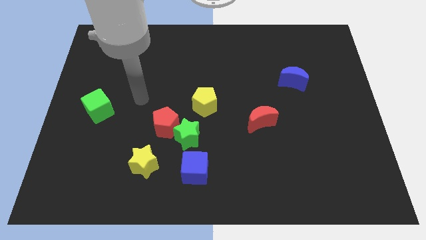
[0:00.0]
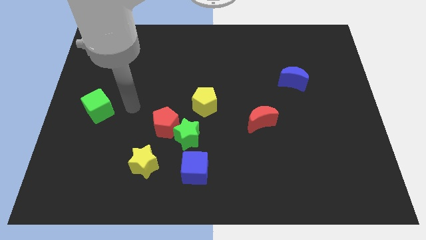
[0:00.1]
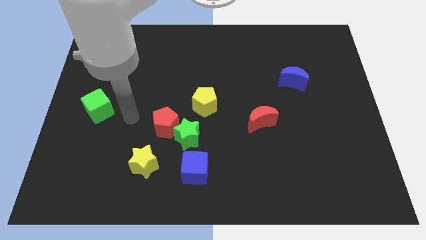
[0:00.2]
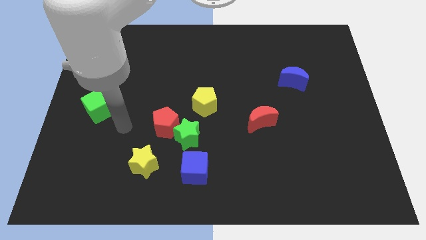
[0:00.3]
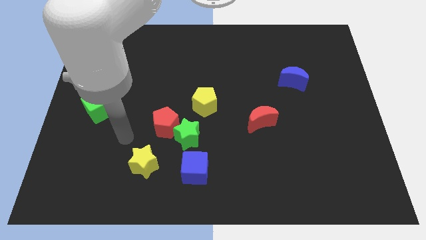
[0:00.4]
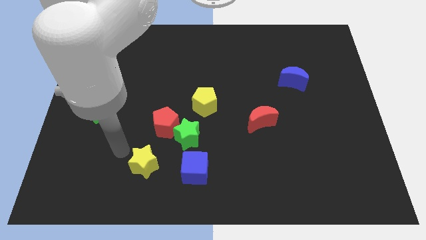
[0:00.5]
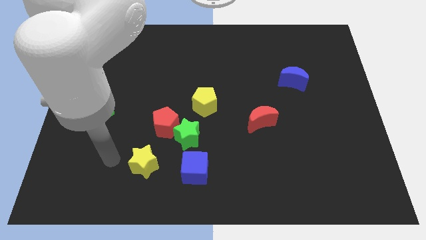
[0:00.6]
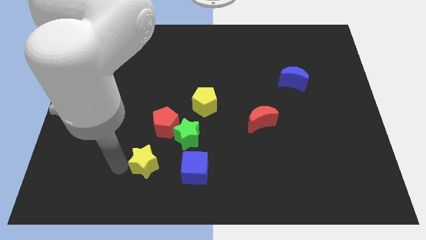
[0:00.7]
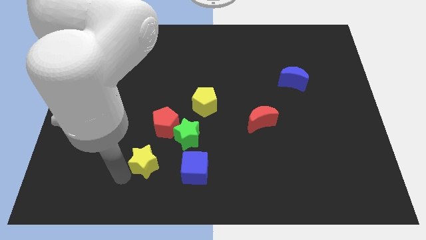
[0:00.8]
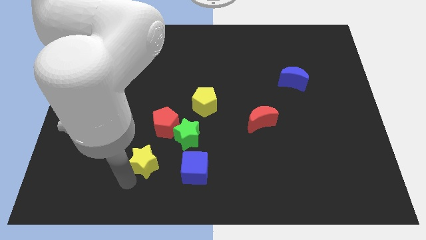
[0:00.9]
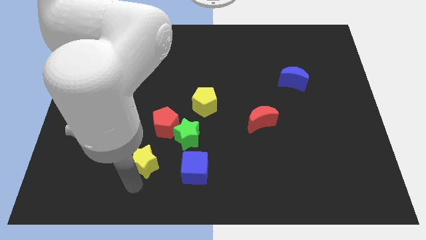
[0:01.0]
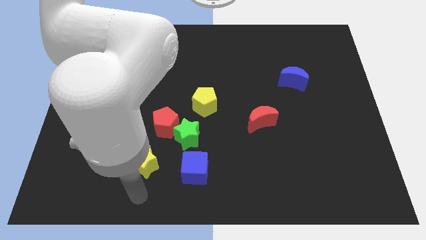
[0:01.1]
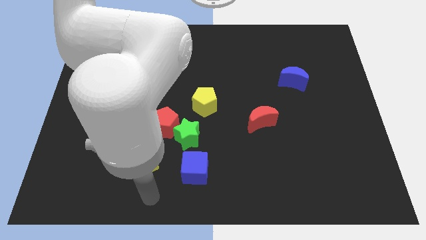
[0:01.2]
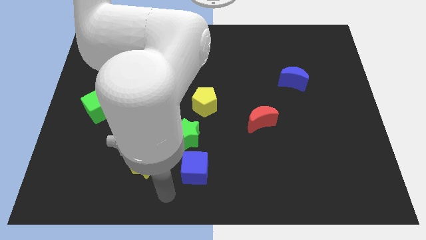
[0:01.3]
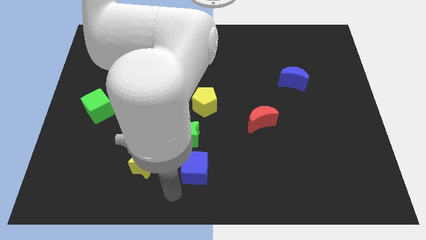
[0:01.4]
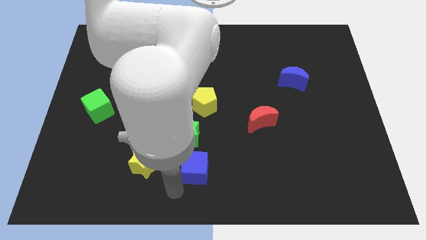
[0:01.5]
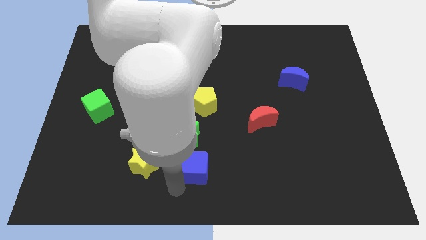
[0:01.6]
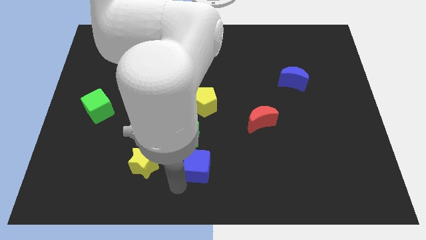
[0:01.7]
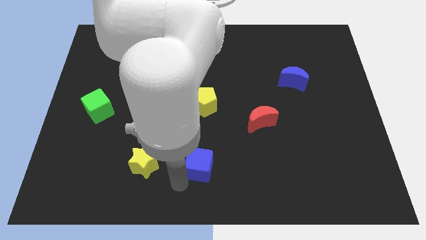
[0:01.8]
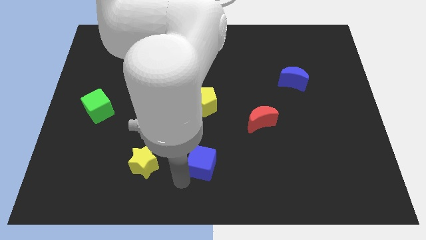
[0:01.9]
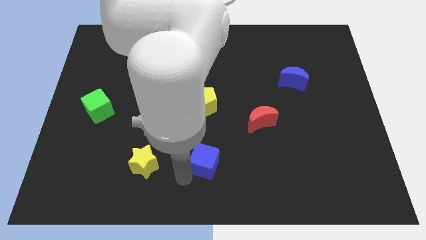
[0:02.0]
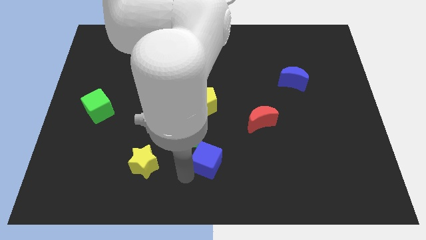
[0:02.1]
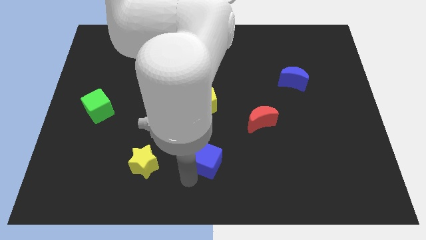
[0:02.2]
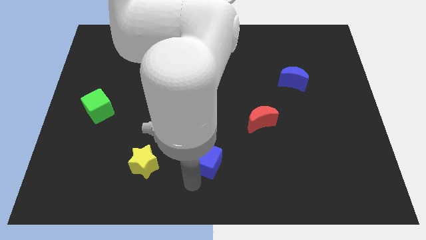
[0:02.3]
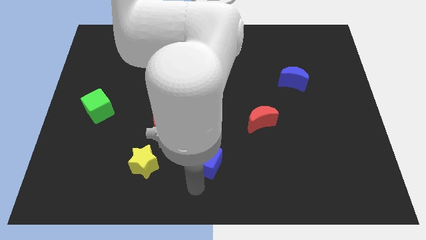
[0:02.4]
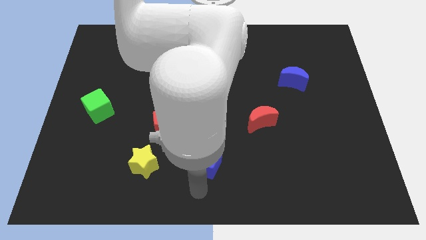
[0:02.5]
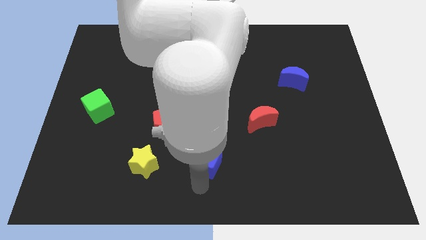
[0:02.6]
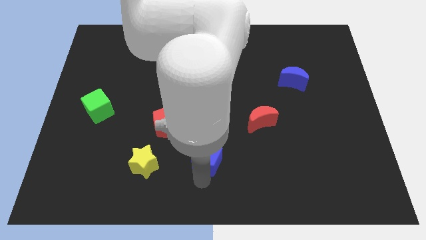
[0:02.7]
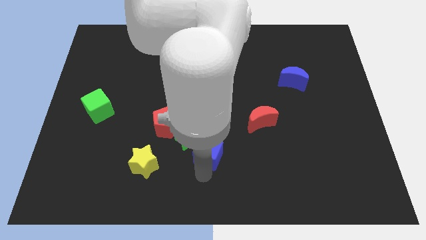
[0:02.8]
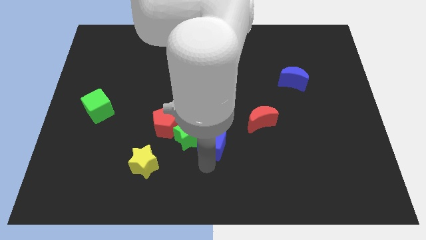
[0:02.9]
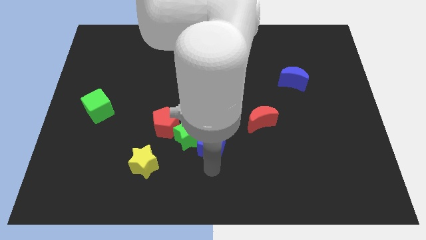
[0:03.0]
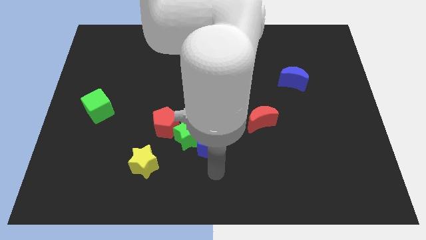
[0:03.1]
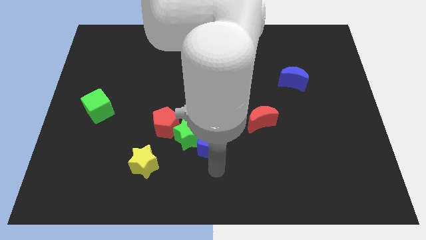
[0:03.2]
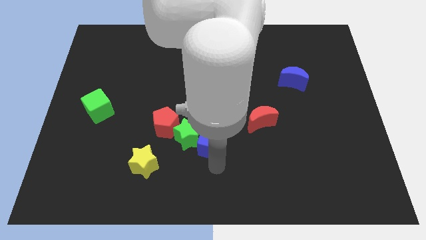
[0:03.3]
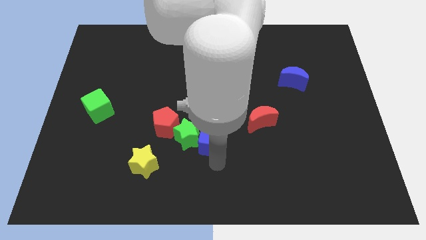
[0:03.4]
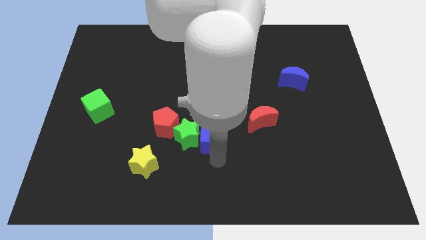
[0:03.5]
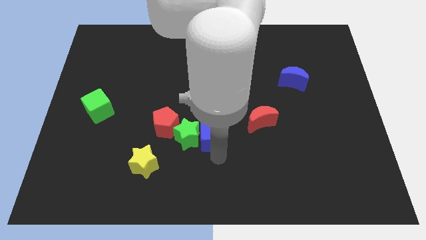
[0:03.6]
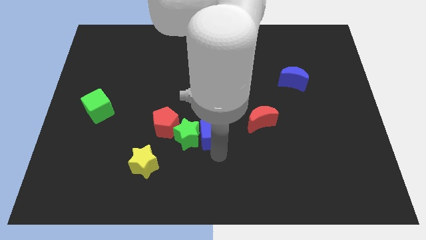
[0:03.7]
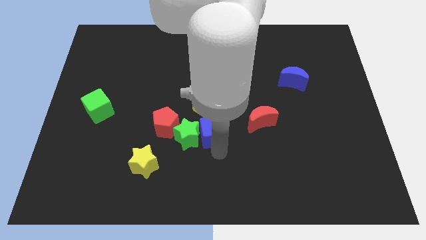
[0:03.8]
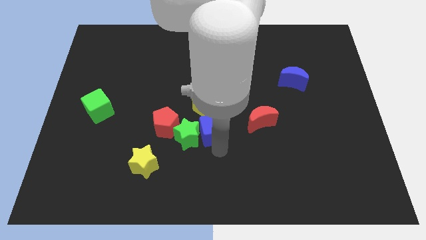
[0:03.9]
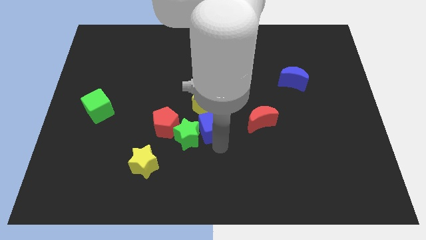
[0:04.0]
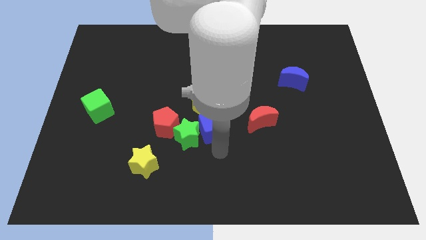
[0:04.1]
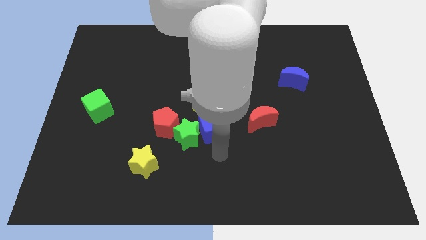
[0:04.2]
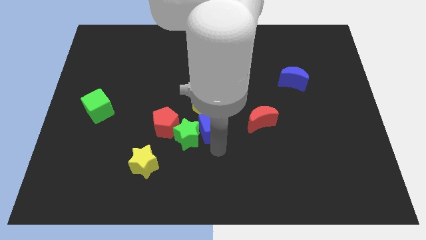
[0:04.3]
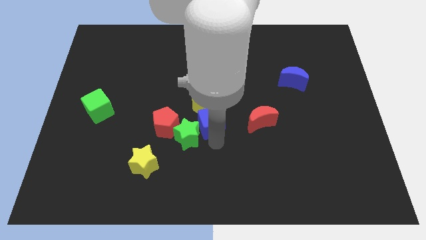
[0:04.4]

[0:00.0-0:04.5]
move the blue cube to the yellow pentagon

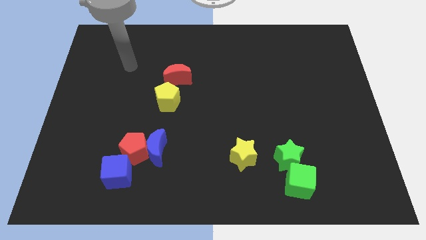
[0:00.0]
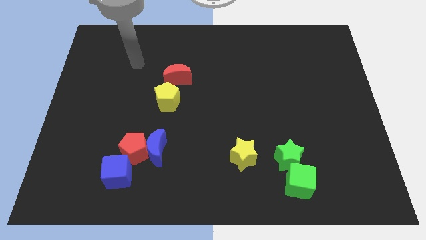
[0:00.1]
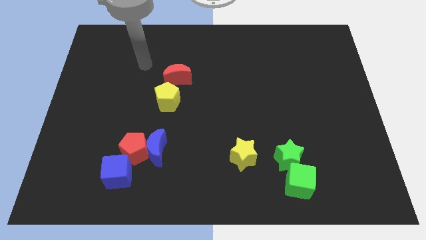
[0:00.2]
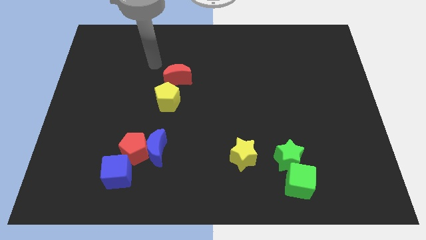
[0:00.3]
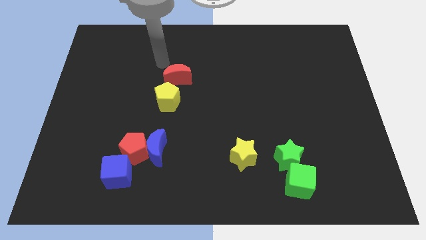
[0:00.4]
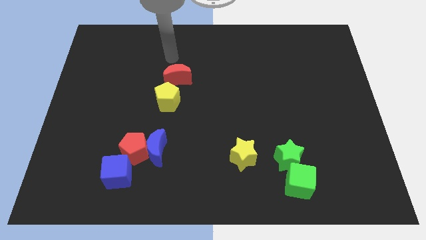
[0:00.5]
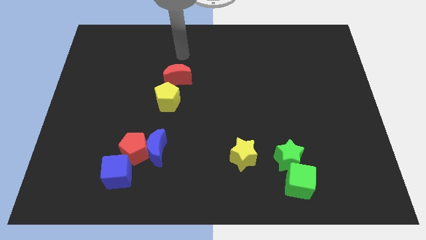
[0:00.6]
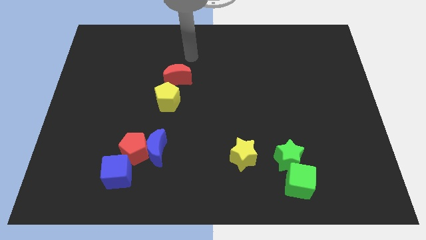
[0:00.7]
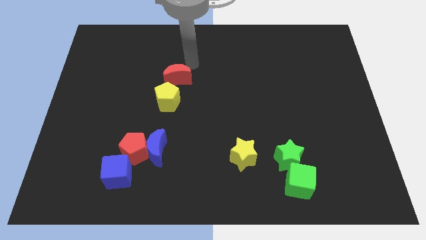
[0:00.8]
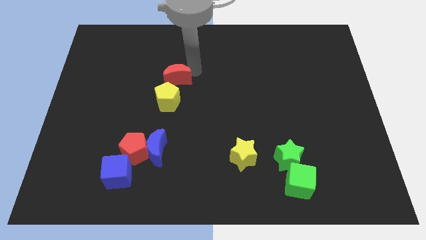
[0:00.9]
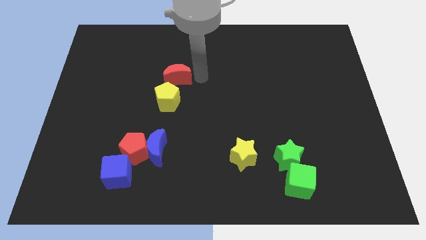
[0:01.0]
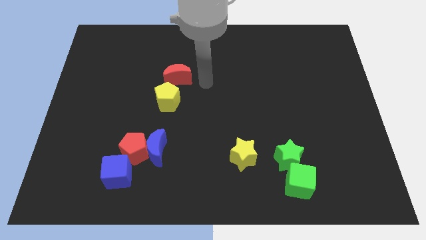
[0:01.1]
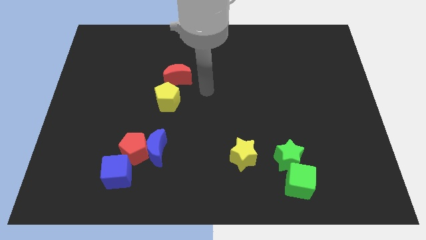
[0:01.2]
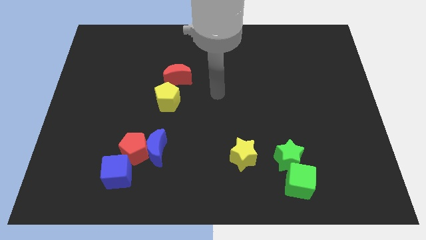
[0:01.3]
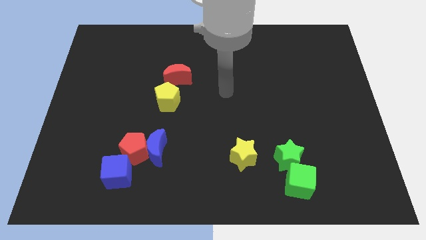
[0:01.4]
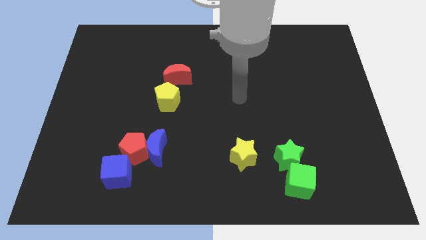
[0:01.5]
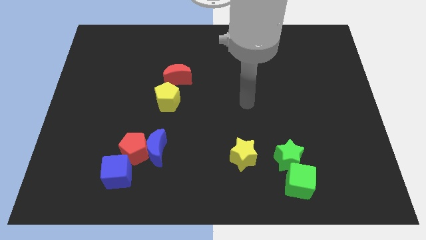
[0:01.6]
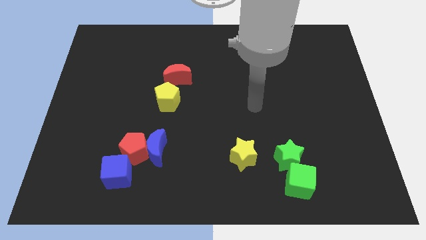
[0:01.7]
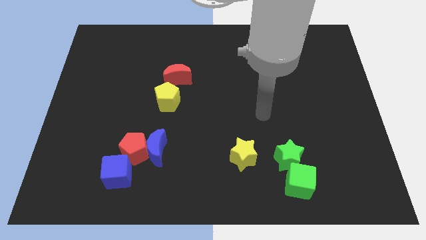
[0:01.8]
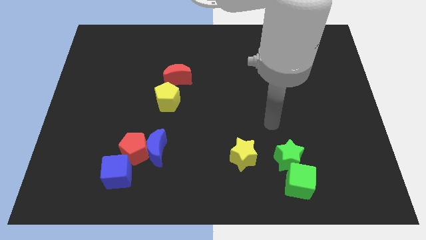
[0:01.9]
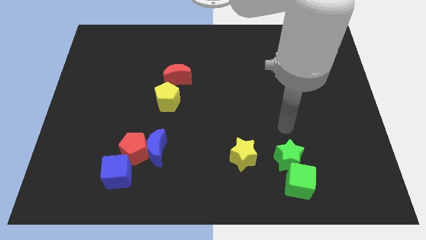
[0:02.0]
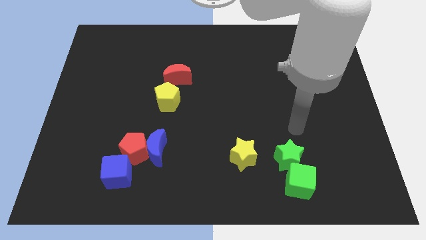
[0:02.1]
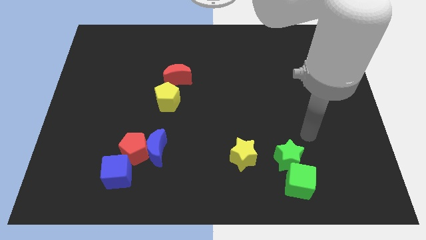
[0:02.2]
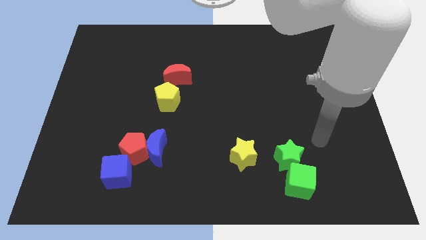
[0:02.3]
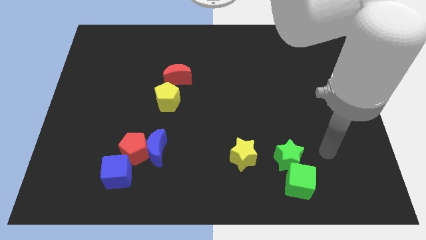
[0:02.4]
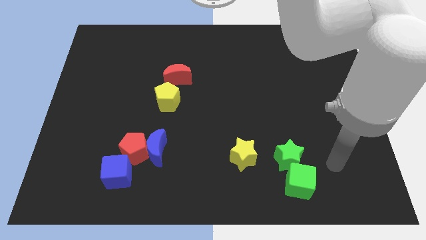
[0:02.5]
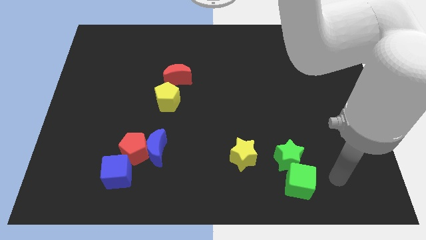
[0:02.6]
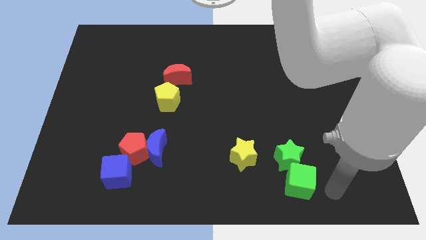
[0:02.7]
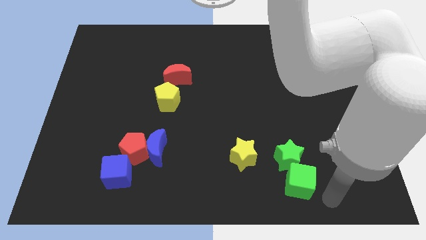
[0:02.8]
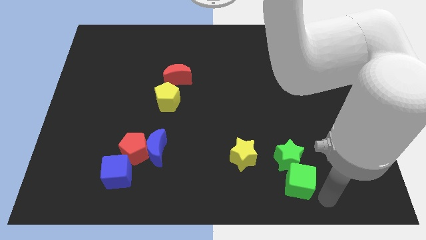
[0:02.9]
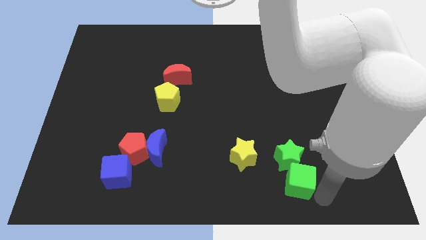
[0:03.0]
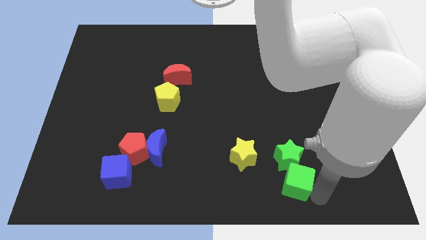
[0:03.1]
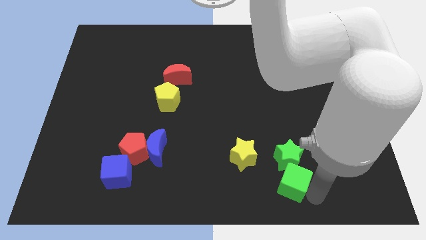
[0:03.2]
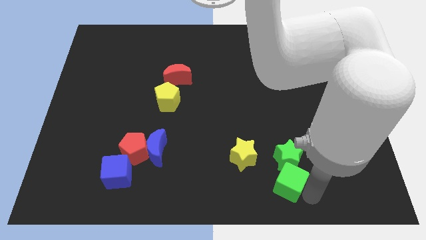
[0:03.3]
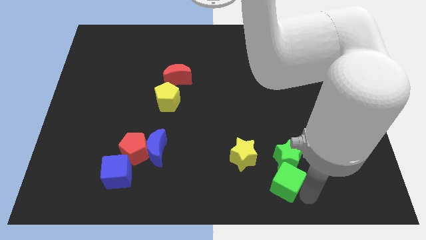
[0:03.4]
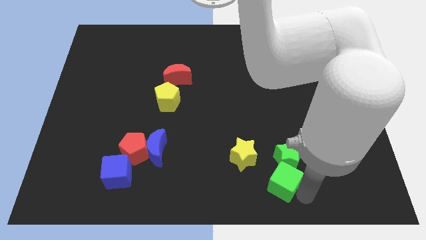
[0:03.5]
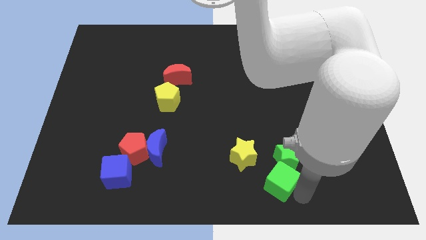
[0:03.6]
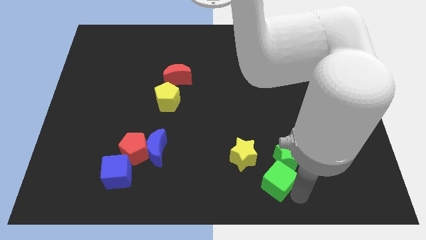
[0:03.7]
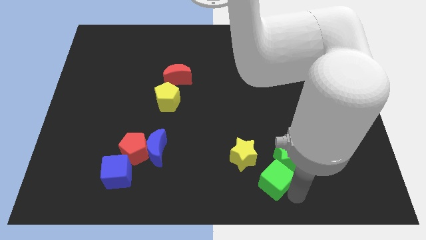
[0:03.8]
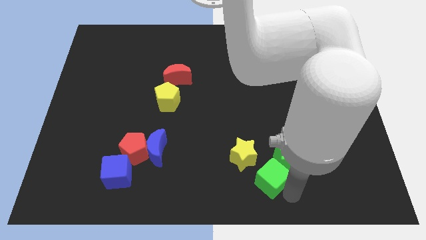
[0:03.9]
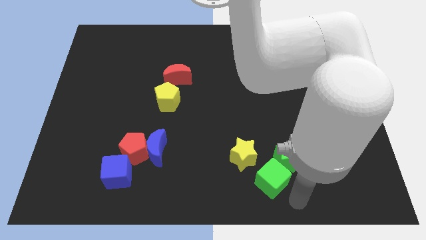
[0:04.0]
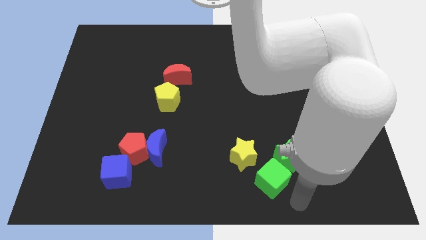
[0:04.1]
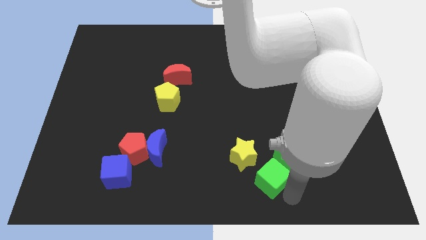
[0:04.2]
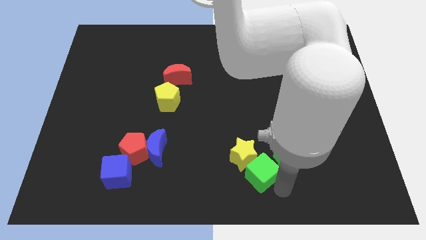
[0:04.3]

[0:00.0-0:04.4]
put the green cube close to the yellow star
